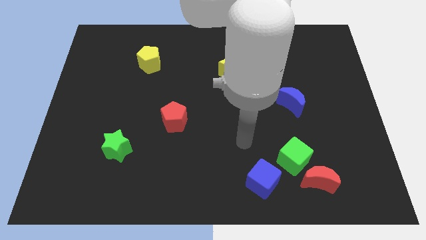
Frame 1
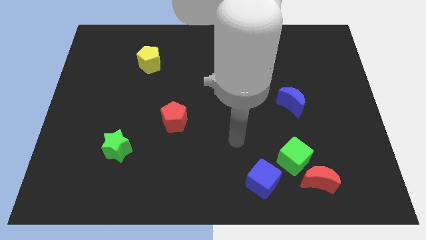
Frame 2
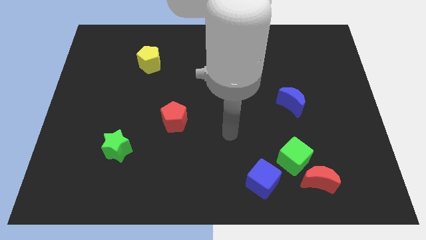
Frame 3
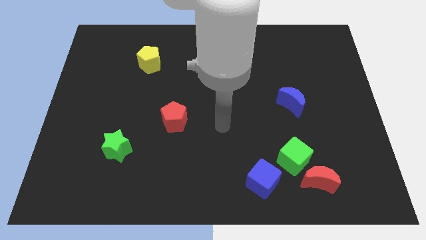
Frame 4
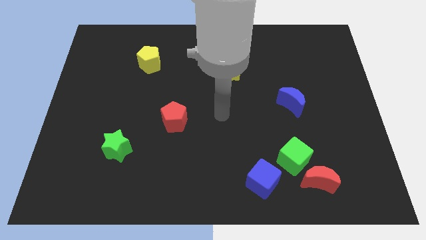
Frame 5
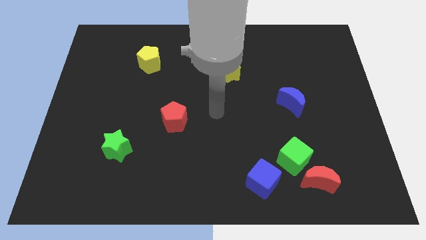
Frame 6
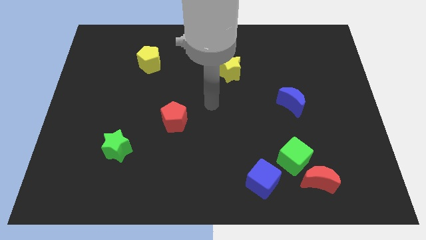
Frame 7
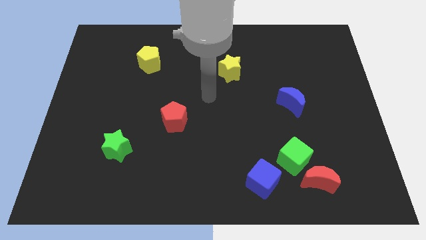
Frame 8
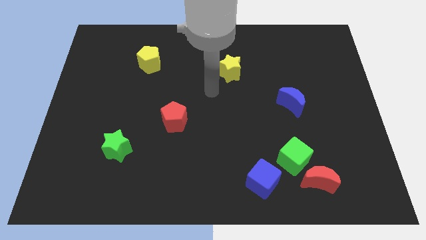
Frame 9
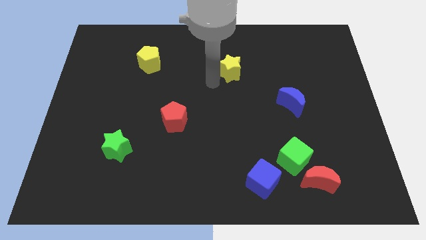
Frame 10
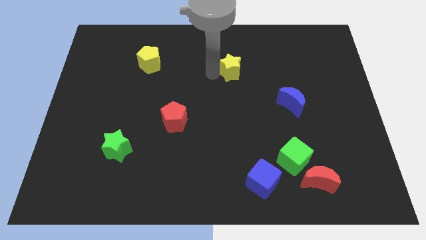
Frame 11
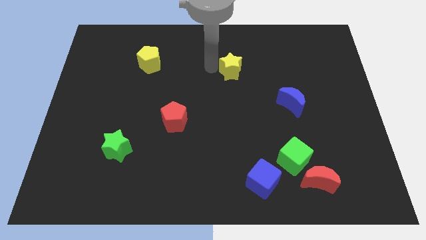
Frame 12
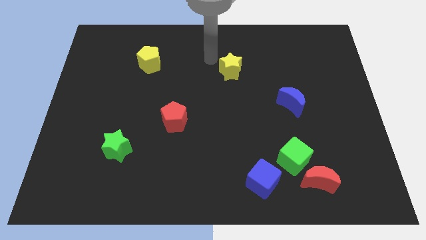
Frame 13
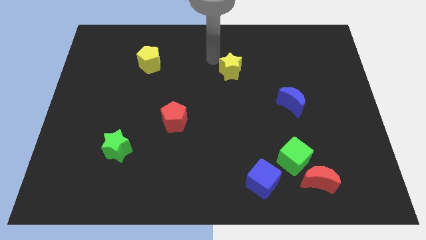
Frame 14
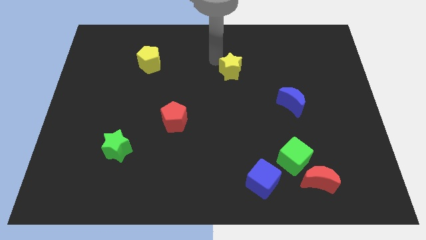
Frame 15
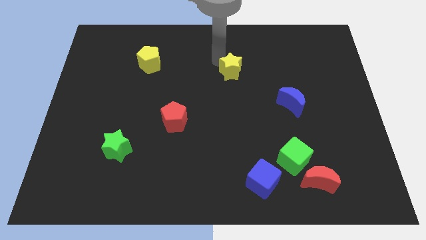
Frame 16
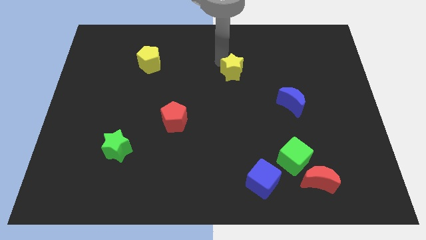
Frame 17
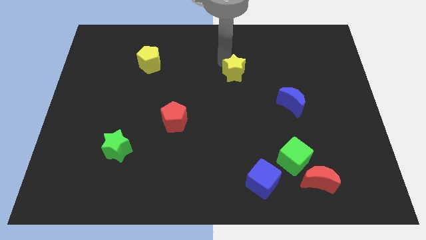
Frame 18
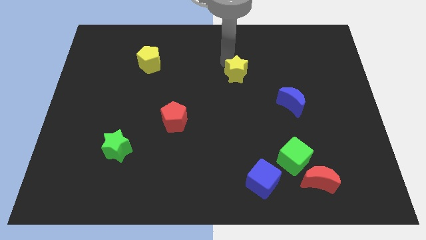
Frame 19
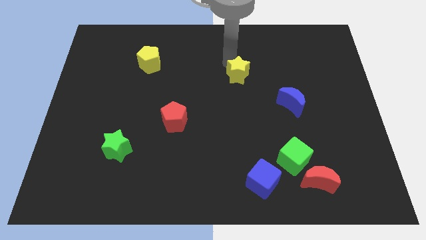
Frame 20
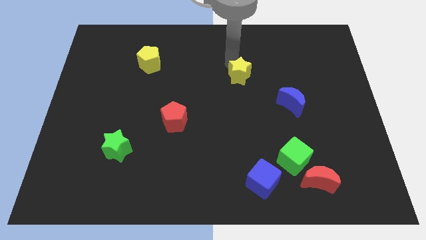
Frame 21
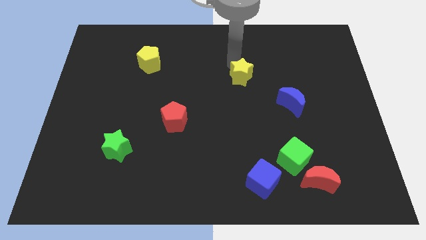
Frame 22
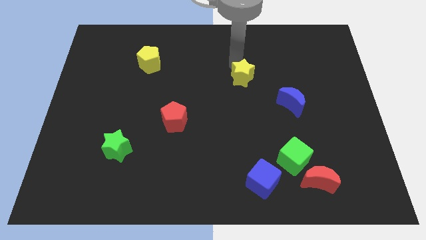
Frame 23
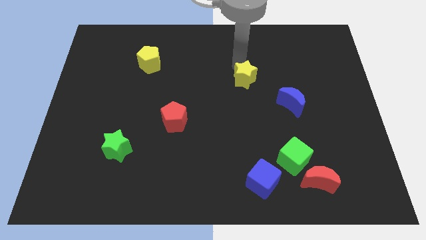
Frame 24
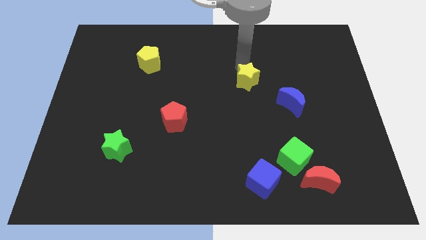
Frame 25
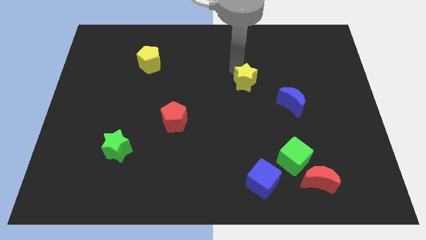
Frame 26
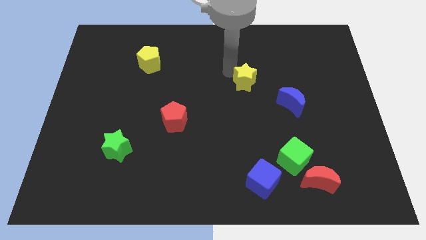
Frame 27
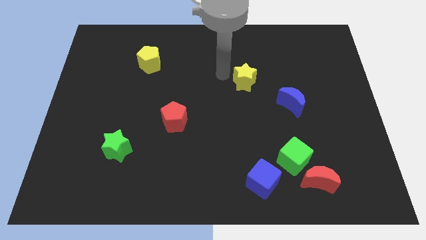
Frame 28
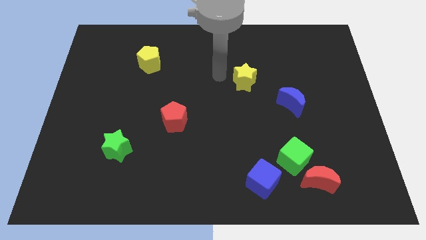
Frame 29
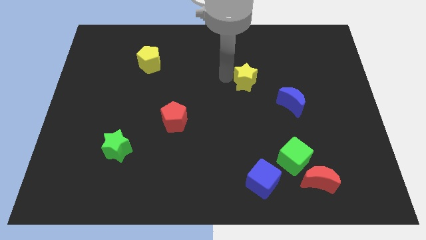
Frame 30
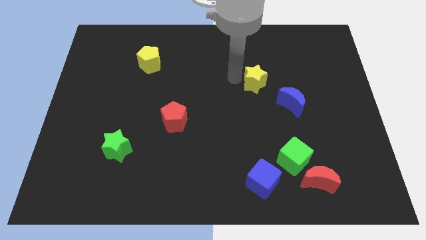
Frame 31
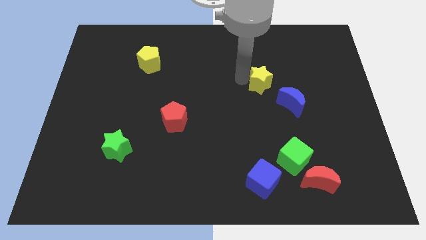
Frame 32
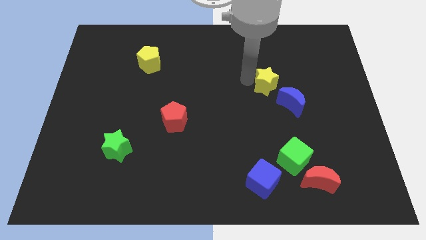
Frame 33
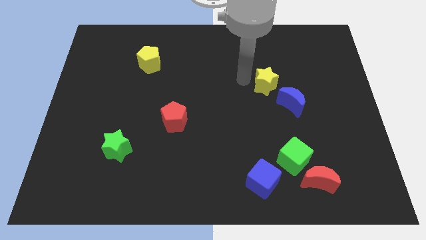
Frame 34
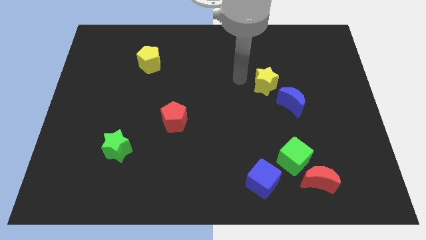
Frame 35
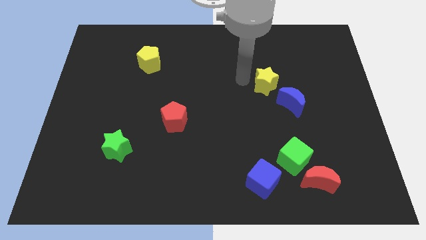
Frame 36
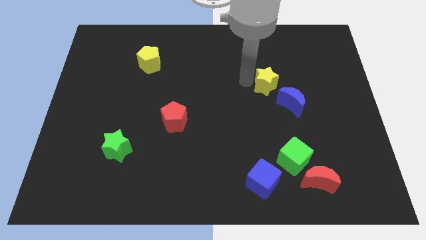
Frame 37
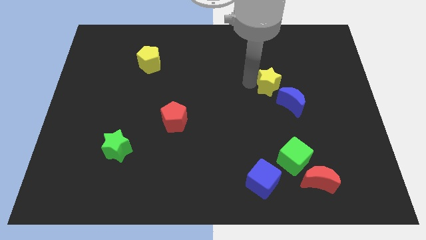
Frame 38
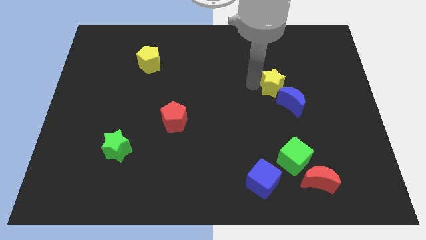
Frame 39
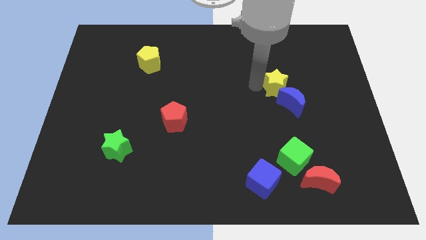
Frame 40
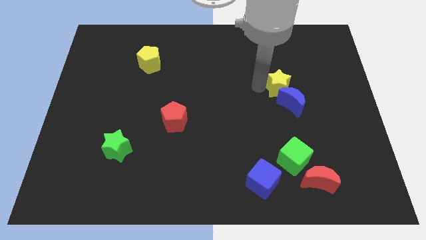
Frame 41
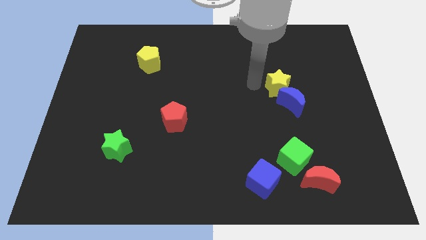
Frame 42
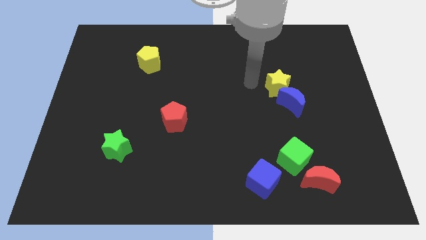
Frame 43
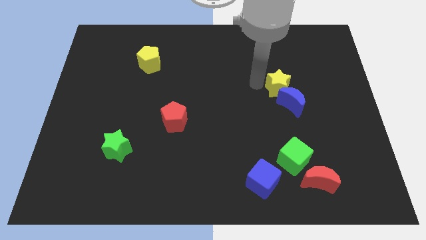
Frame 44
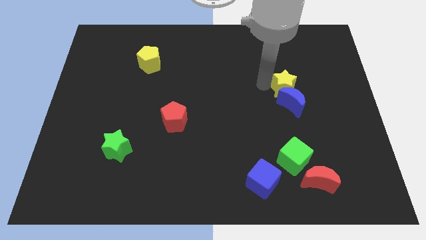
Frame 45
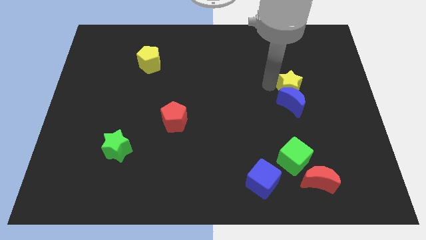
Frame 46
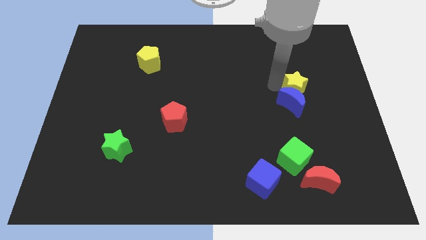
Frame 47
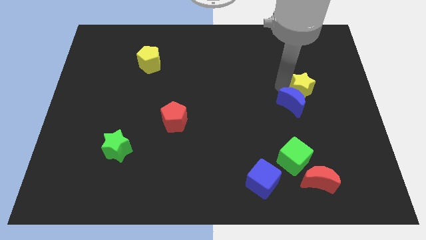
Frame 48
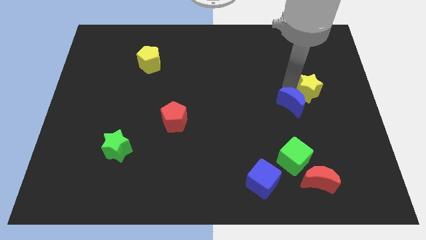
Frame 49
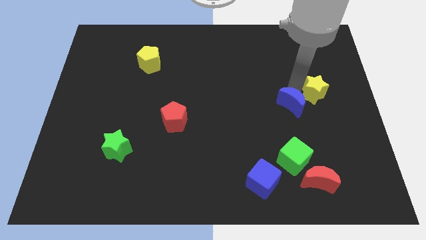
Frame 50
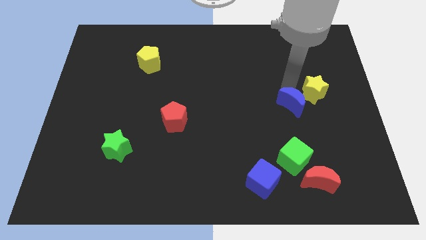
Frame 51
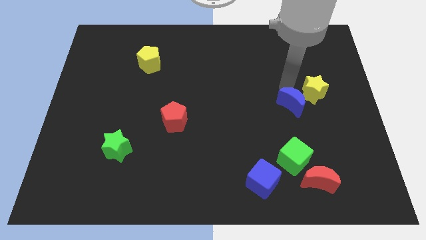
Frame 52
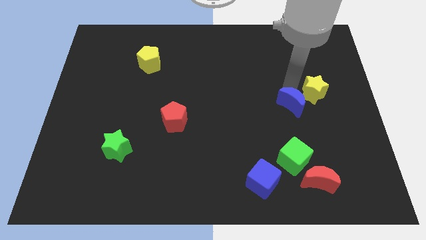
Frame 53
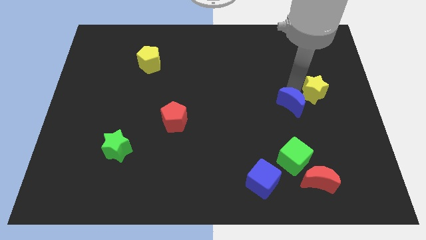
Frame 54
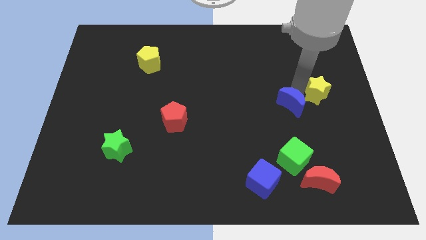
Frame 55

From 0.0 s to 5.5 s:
move the yellow star to the right side of the board
